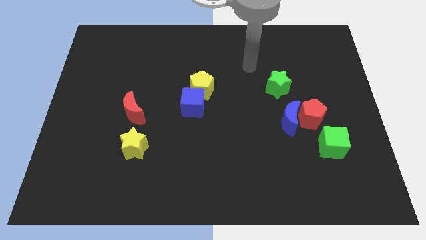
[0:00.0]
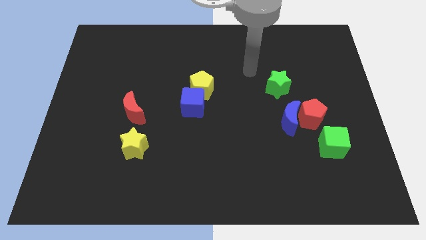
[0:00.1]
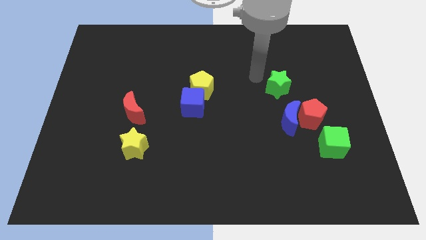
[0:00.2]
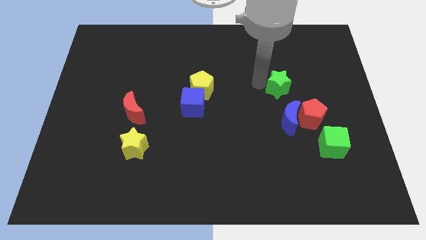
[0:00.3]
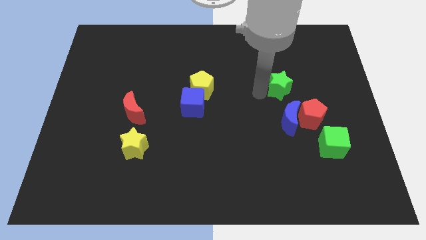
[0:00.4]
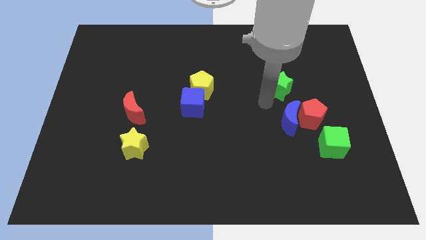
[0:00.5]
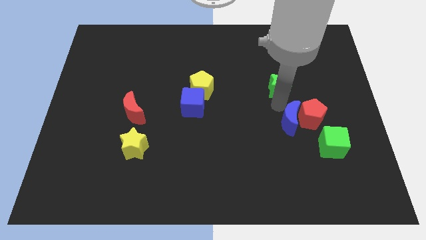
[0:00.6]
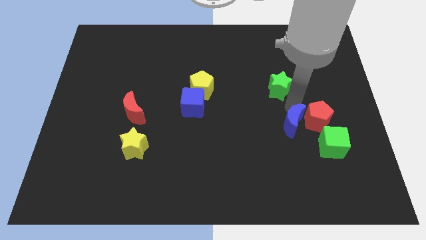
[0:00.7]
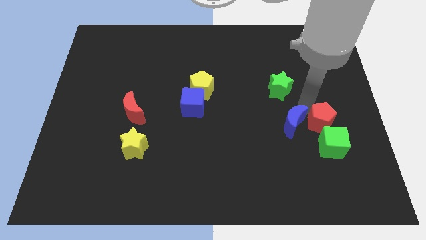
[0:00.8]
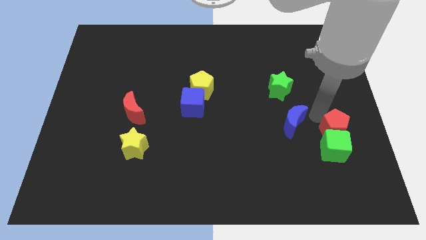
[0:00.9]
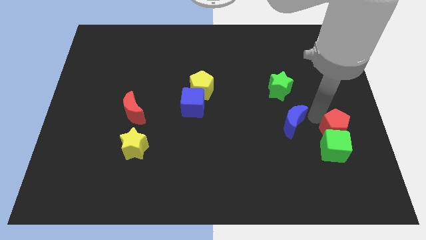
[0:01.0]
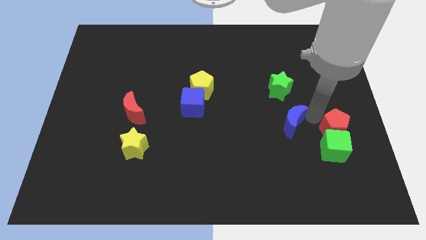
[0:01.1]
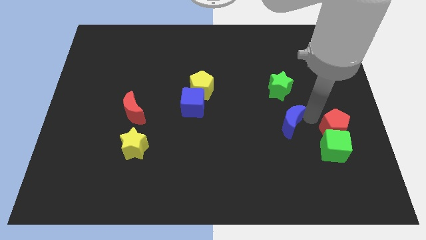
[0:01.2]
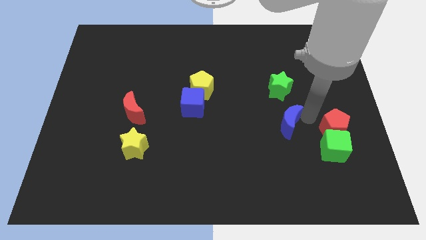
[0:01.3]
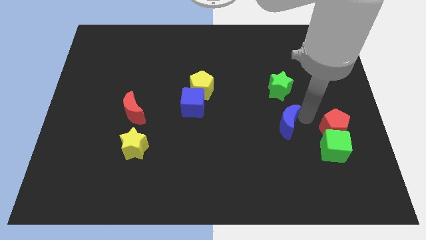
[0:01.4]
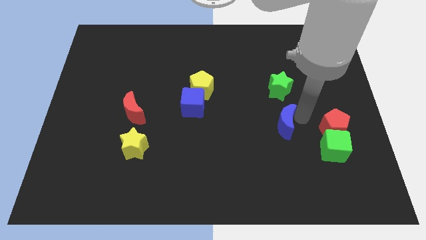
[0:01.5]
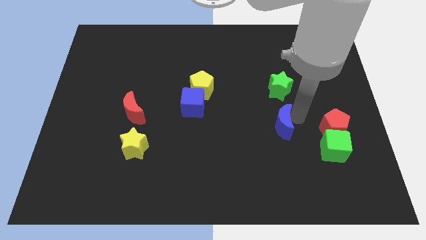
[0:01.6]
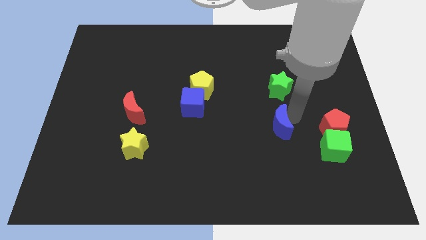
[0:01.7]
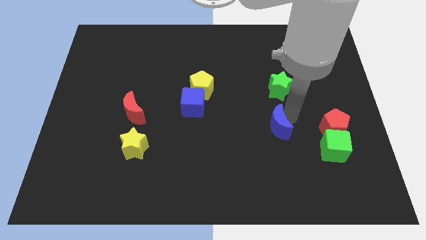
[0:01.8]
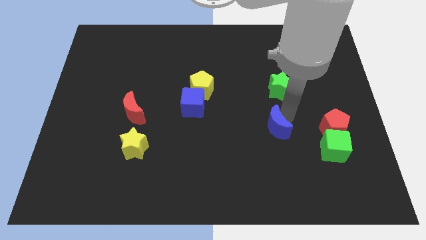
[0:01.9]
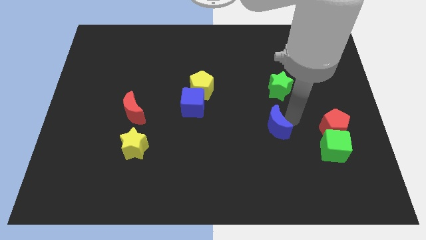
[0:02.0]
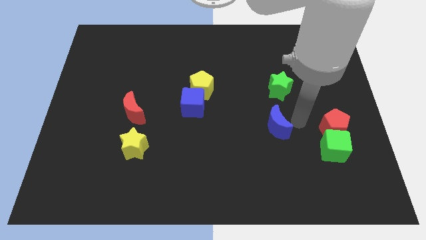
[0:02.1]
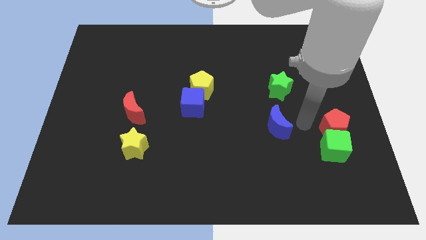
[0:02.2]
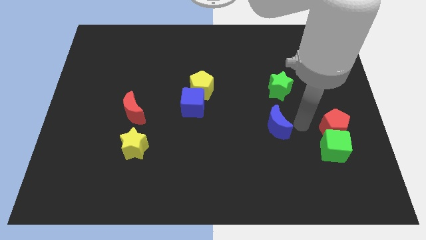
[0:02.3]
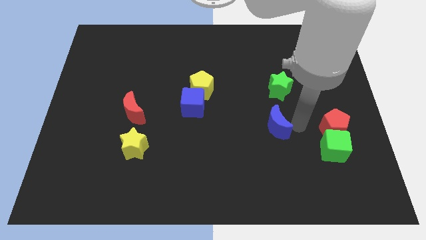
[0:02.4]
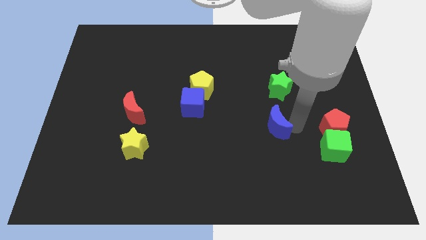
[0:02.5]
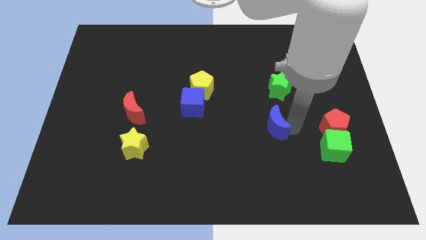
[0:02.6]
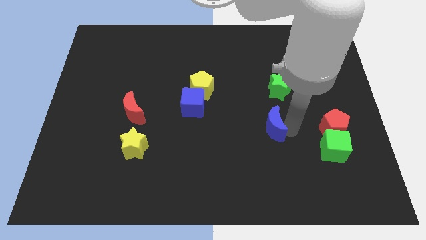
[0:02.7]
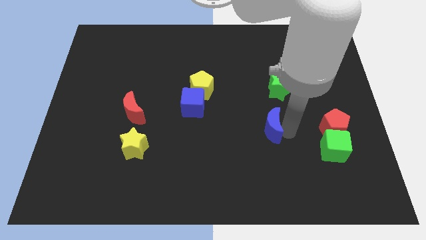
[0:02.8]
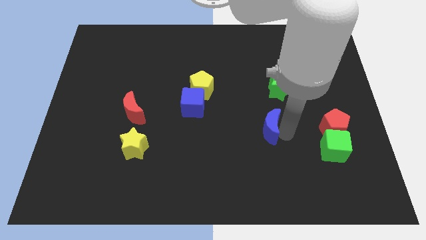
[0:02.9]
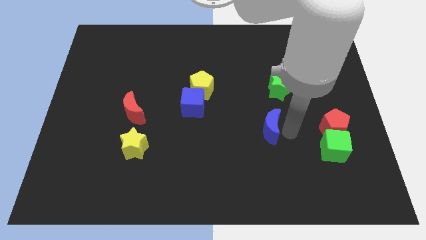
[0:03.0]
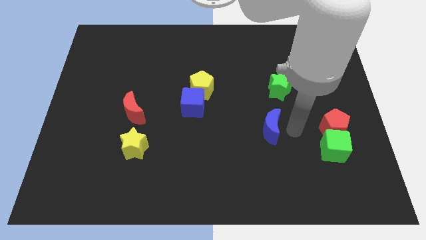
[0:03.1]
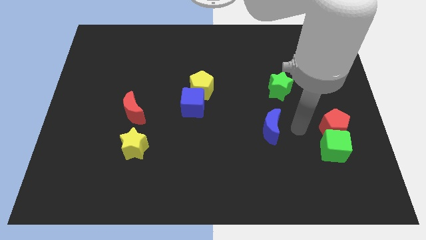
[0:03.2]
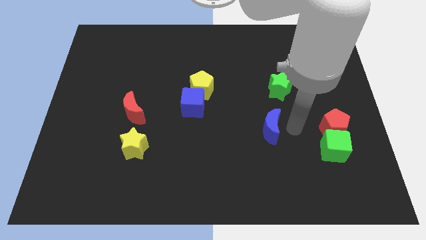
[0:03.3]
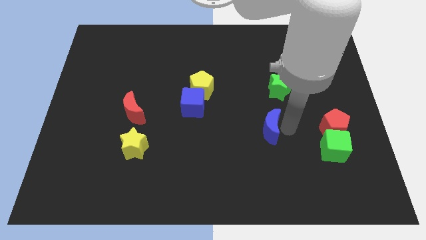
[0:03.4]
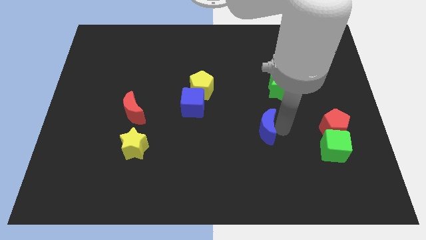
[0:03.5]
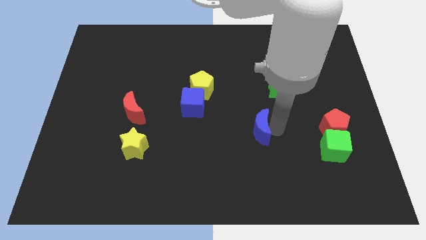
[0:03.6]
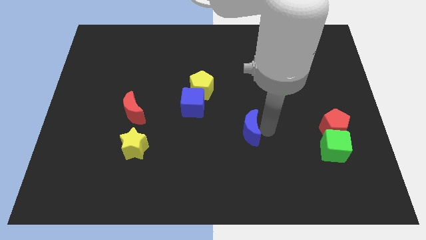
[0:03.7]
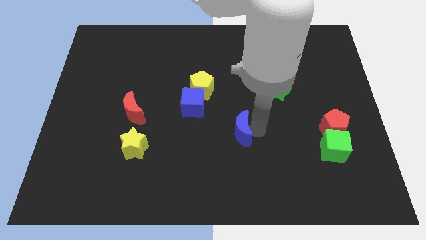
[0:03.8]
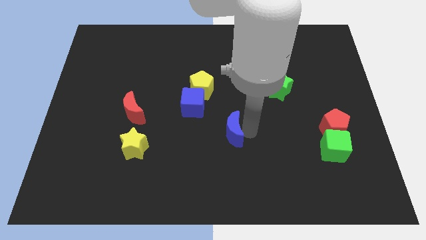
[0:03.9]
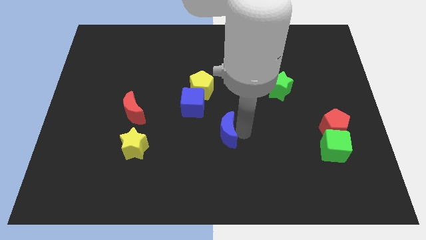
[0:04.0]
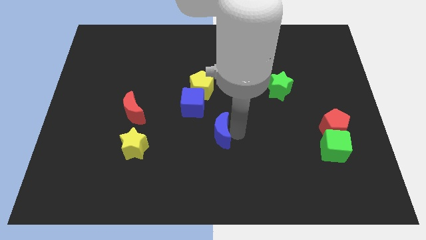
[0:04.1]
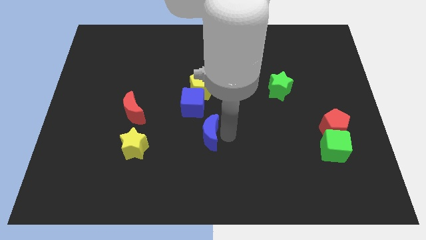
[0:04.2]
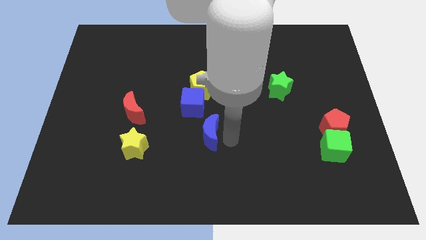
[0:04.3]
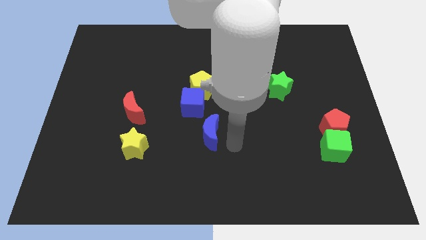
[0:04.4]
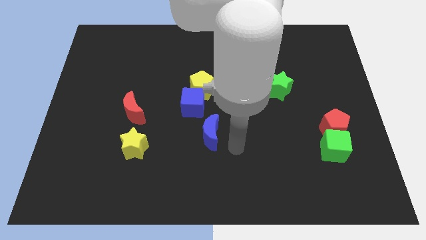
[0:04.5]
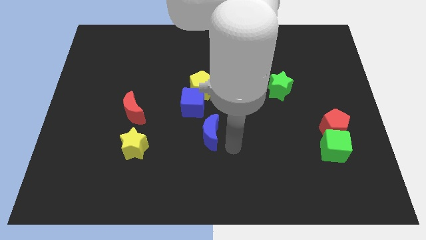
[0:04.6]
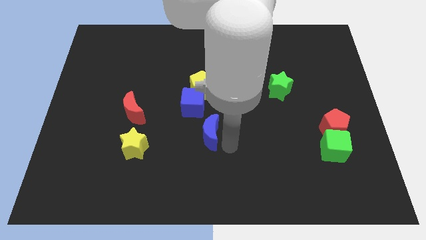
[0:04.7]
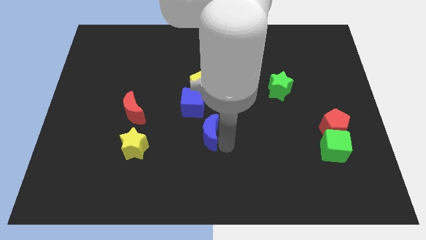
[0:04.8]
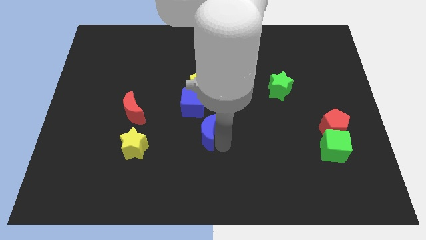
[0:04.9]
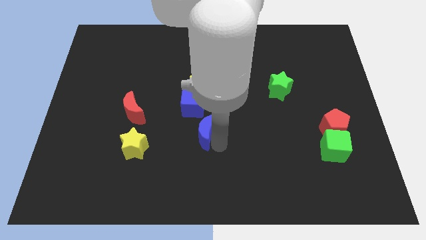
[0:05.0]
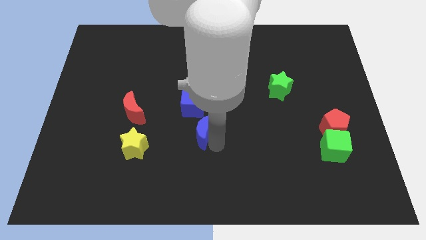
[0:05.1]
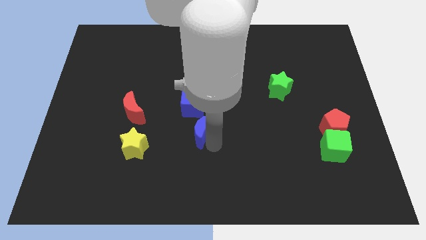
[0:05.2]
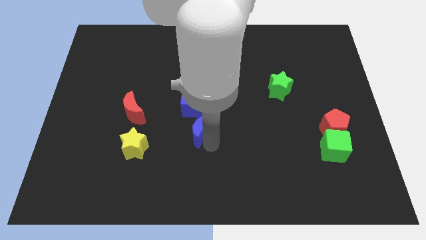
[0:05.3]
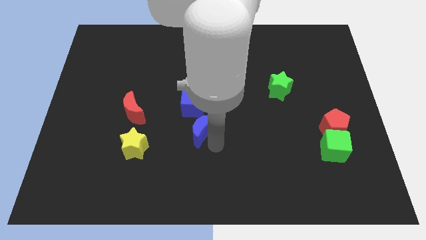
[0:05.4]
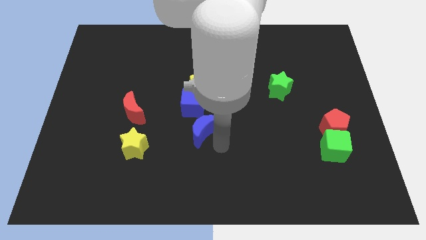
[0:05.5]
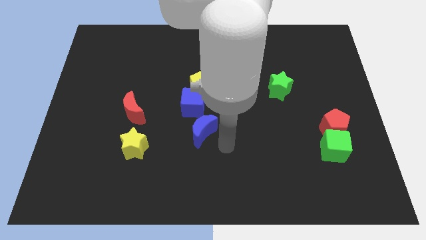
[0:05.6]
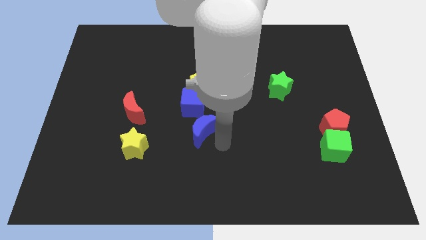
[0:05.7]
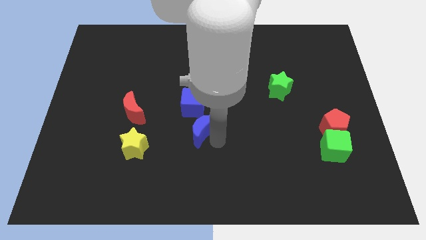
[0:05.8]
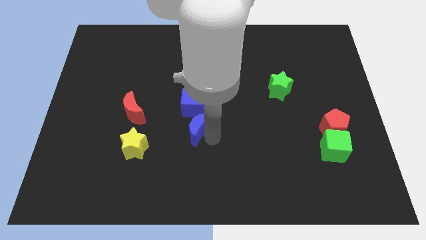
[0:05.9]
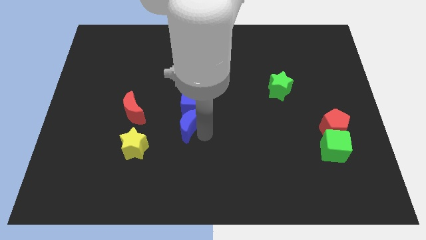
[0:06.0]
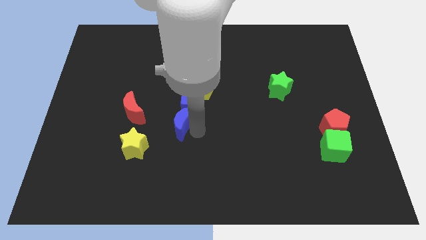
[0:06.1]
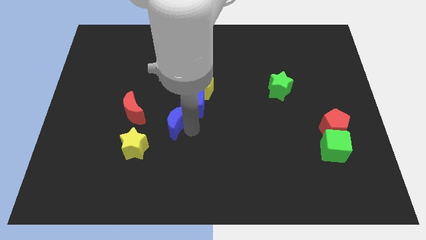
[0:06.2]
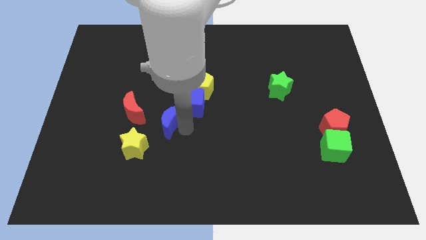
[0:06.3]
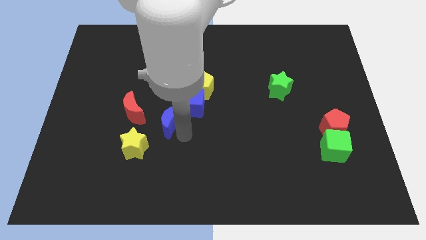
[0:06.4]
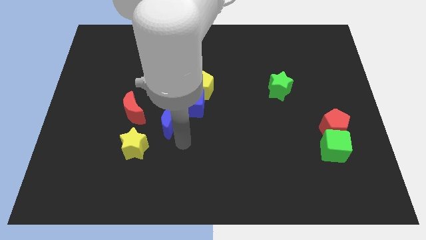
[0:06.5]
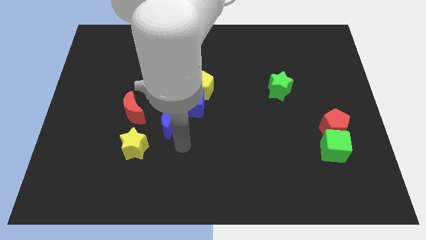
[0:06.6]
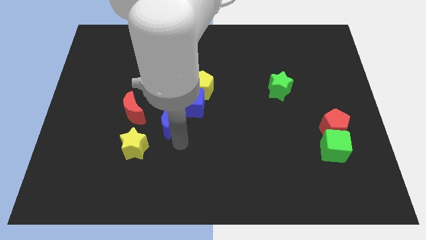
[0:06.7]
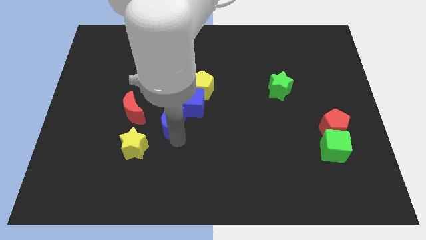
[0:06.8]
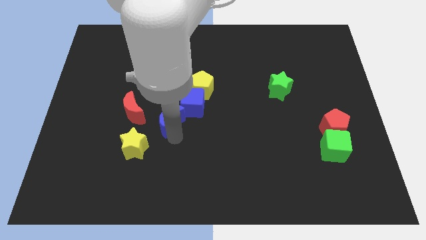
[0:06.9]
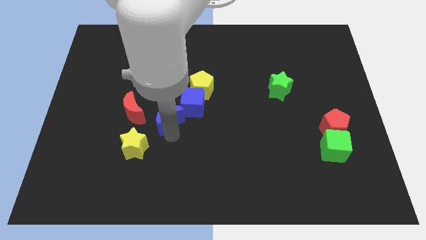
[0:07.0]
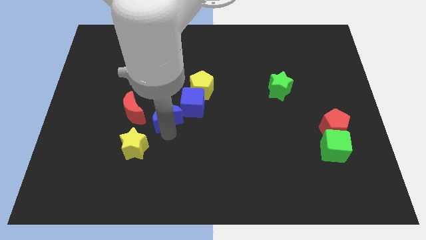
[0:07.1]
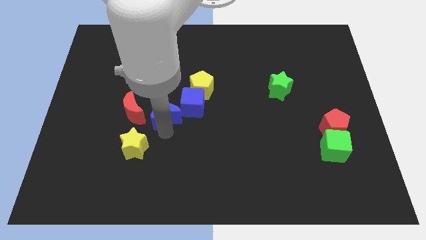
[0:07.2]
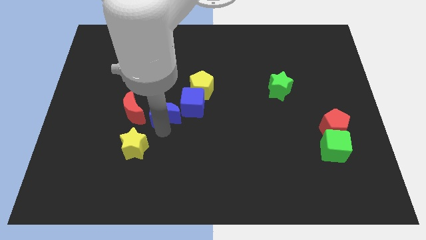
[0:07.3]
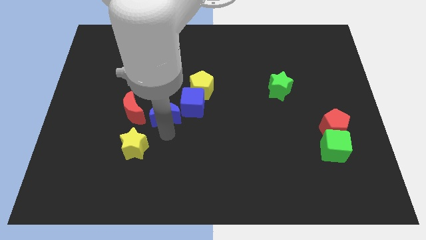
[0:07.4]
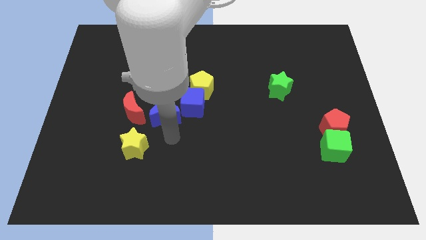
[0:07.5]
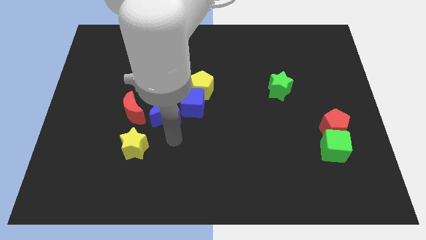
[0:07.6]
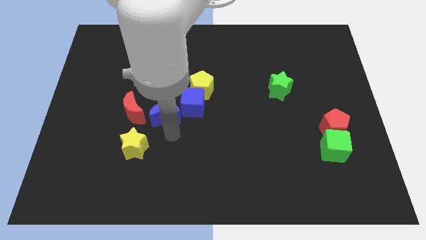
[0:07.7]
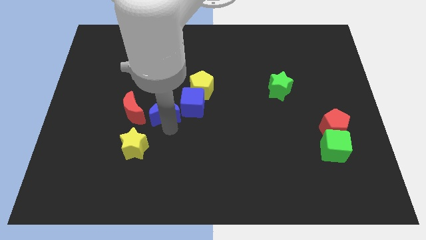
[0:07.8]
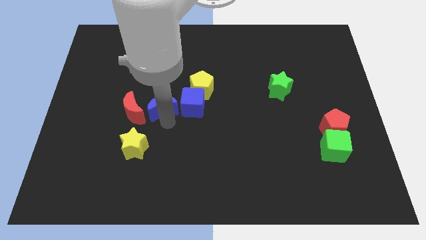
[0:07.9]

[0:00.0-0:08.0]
put the blue moon diagonally up and to the right of the red moon
